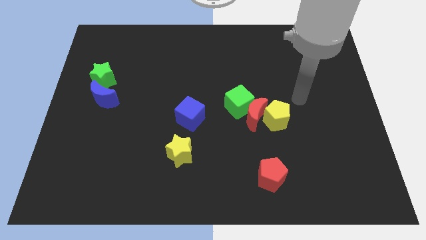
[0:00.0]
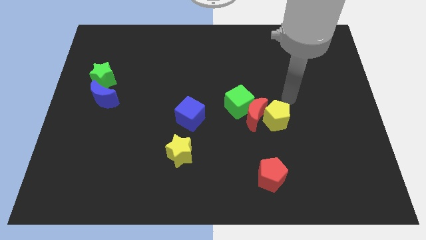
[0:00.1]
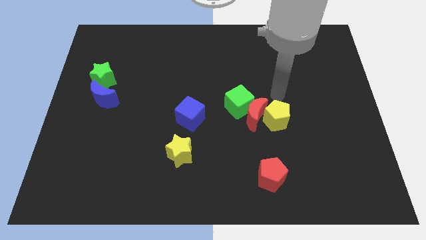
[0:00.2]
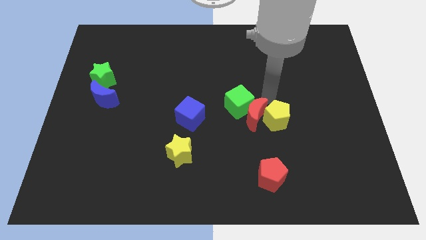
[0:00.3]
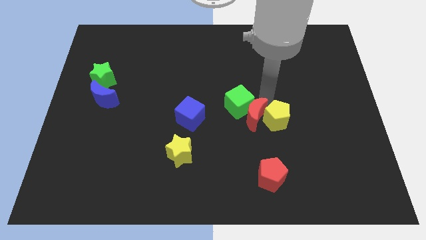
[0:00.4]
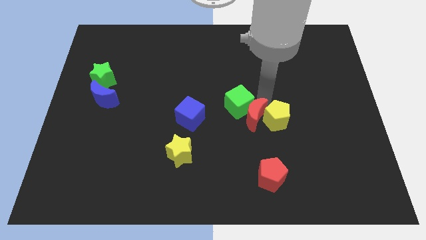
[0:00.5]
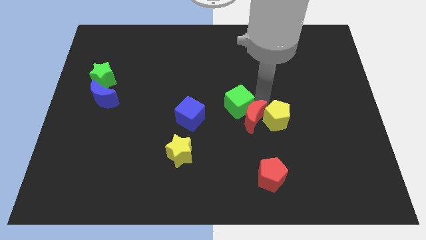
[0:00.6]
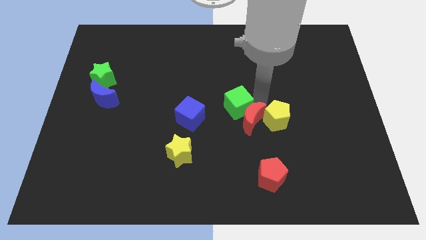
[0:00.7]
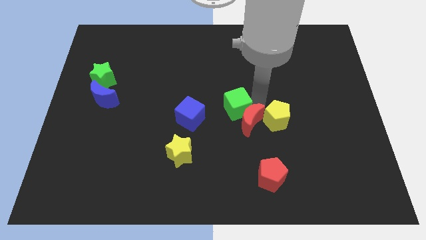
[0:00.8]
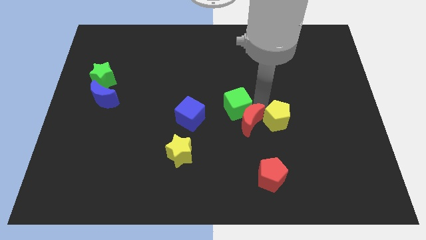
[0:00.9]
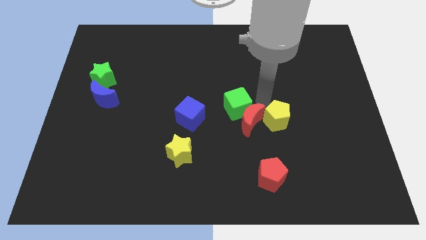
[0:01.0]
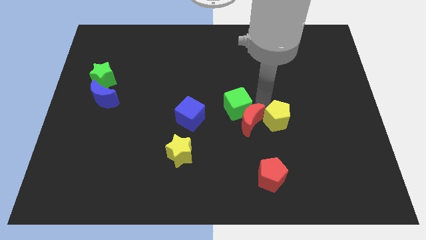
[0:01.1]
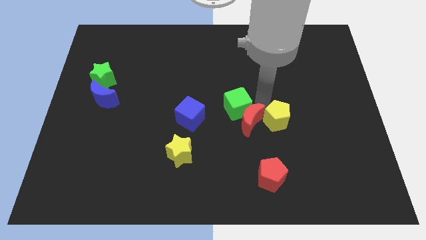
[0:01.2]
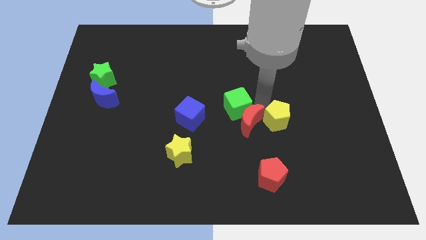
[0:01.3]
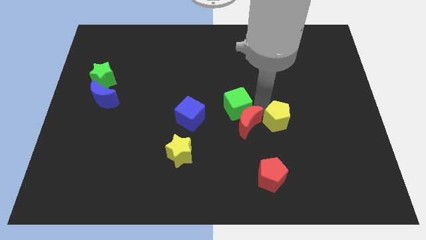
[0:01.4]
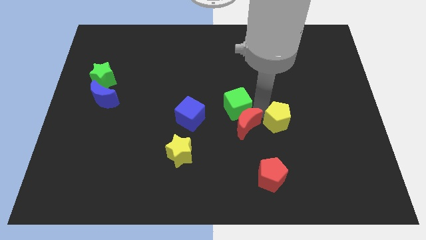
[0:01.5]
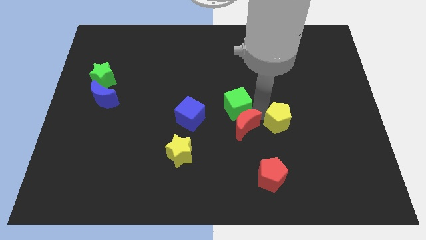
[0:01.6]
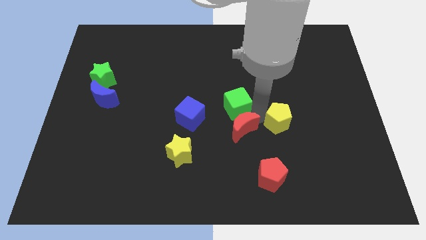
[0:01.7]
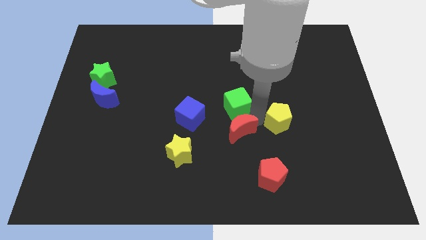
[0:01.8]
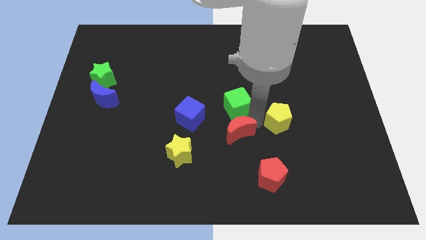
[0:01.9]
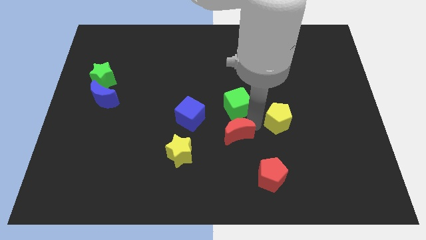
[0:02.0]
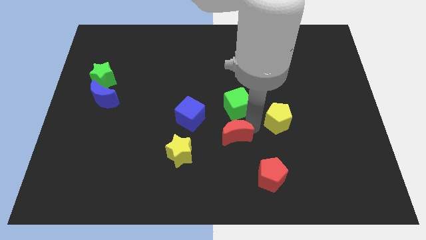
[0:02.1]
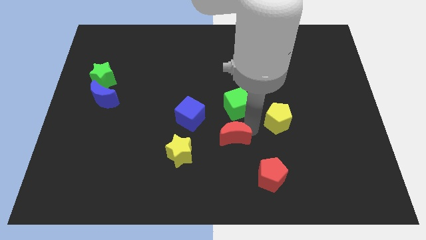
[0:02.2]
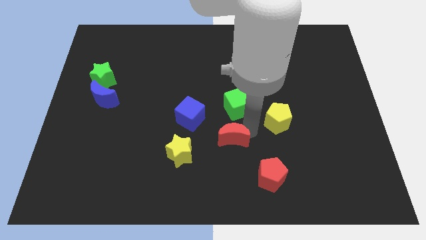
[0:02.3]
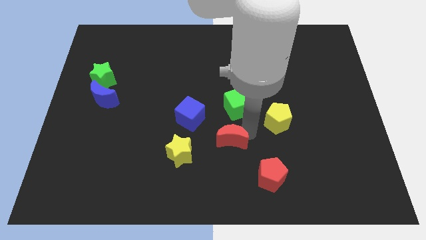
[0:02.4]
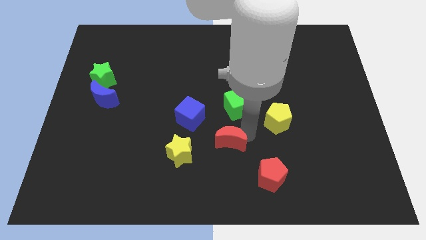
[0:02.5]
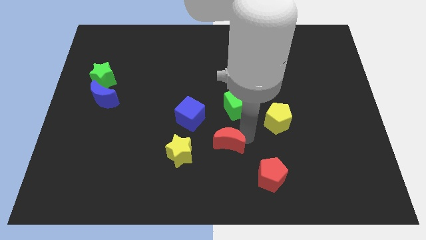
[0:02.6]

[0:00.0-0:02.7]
pull the red moon apart from the green cube and yellow pentagon

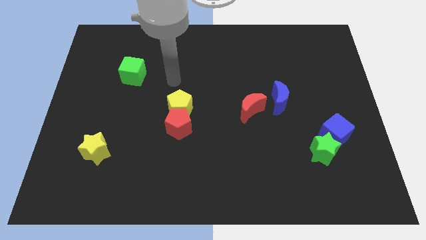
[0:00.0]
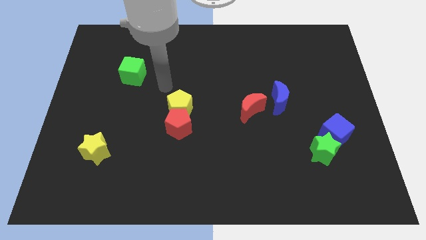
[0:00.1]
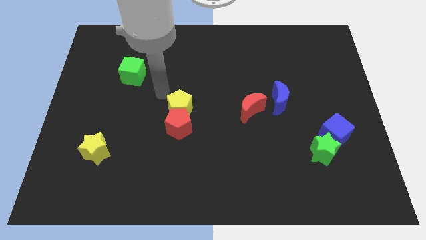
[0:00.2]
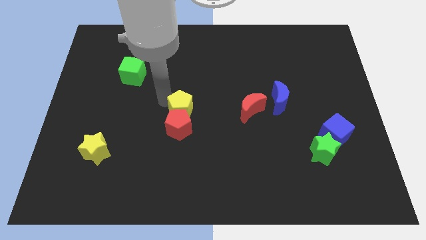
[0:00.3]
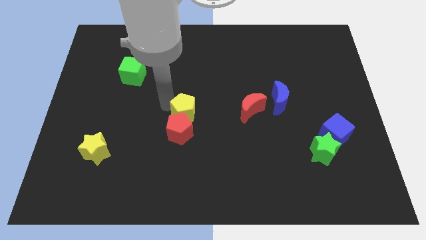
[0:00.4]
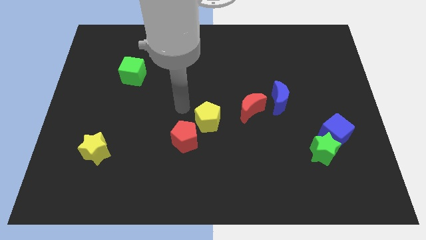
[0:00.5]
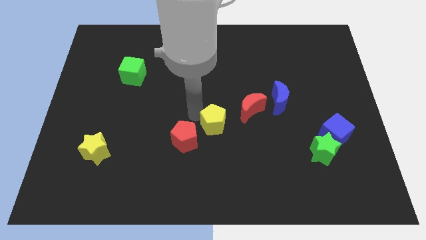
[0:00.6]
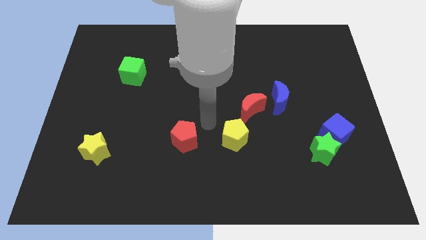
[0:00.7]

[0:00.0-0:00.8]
move the red pentagon away from the yellow pentagon

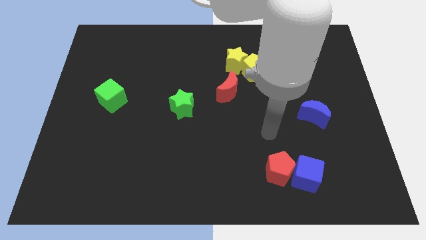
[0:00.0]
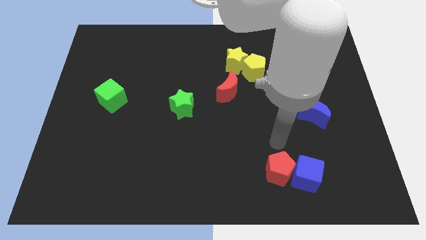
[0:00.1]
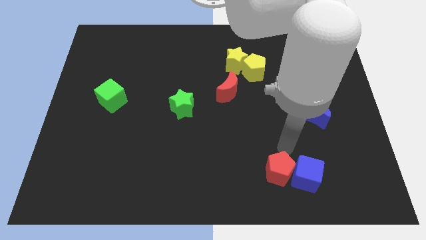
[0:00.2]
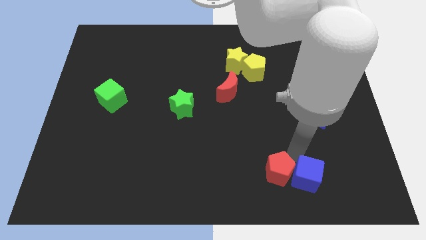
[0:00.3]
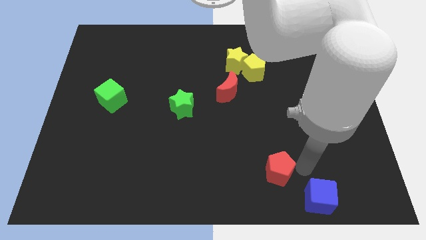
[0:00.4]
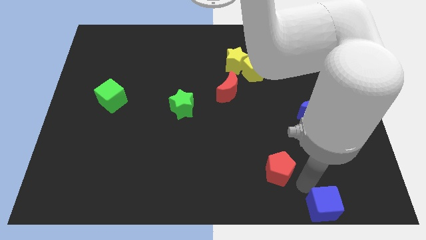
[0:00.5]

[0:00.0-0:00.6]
separate the red pentagon from the blue cube

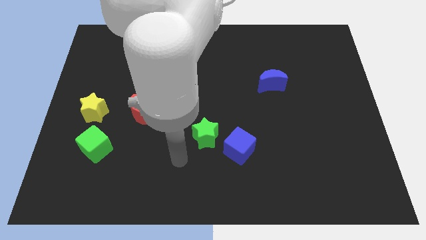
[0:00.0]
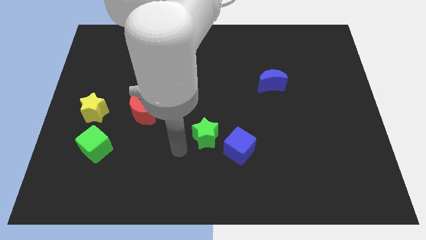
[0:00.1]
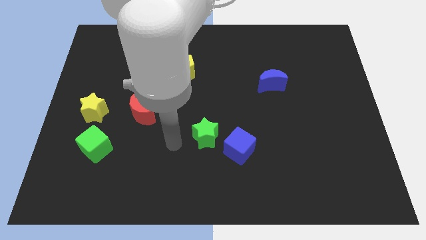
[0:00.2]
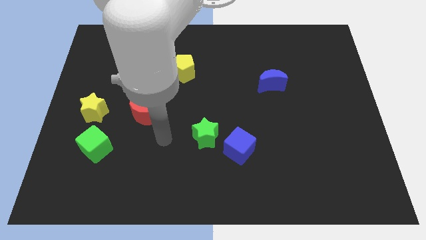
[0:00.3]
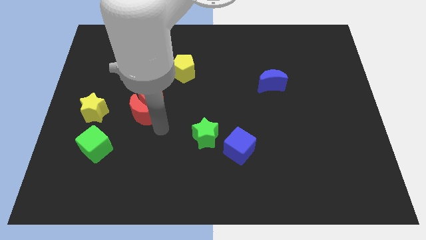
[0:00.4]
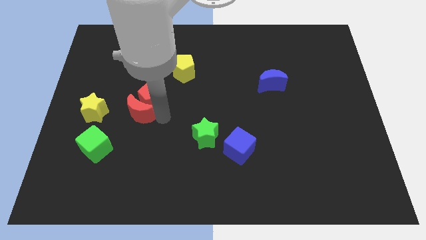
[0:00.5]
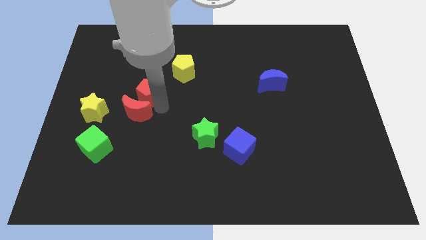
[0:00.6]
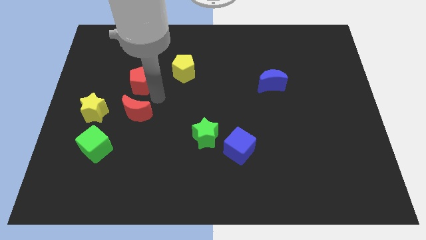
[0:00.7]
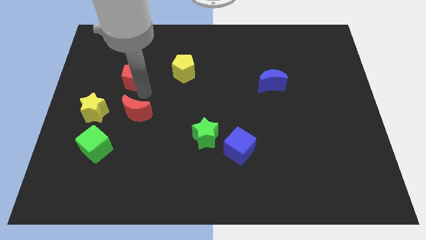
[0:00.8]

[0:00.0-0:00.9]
pull the red moon apart from the red pentagon

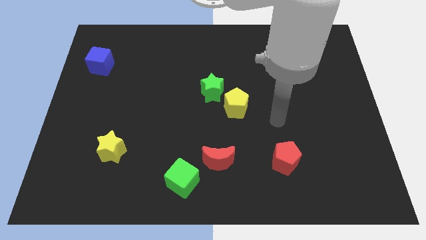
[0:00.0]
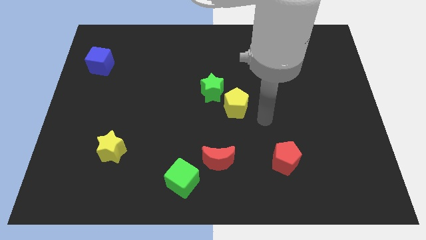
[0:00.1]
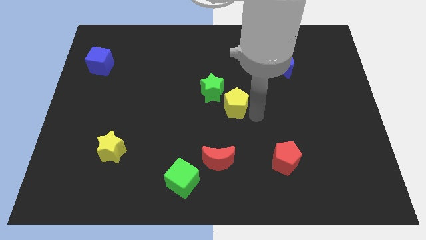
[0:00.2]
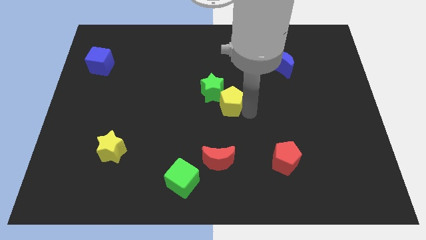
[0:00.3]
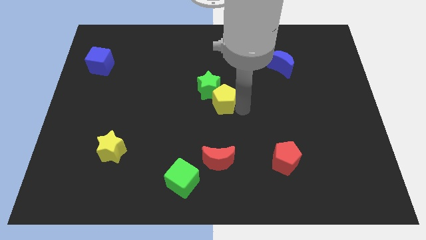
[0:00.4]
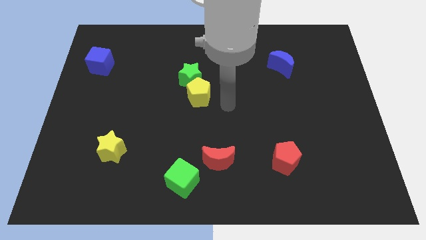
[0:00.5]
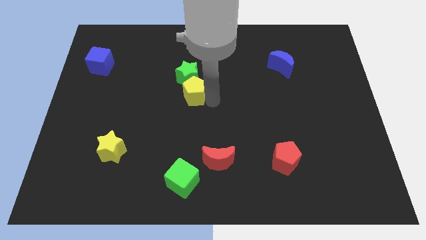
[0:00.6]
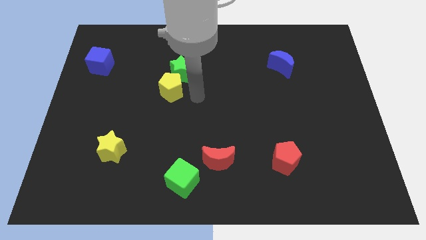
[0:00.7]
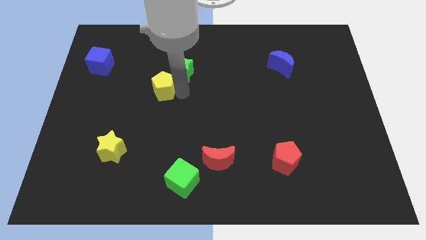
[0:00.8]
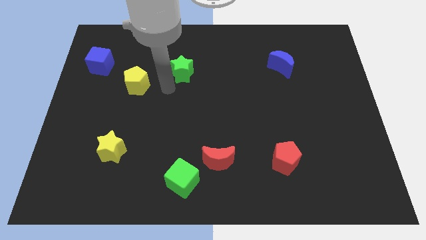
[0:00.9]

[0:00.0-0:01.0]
separate the green star from the yellow pentagon

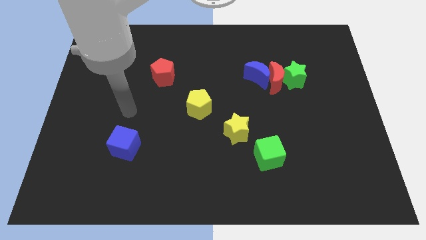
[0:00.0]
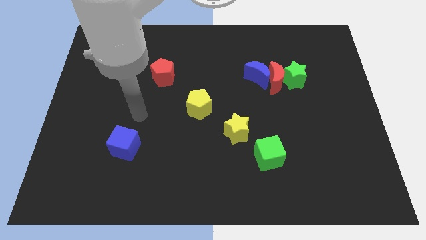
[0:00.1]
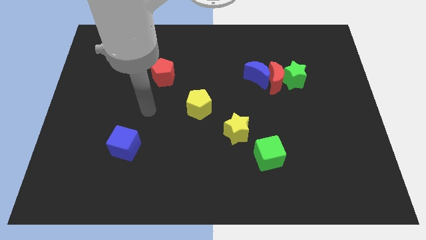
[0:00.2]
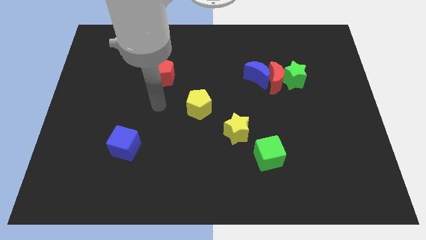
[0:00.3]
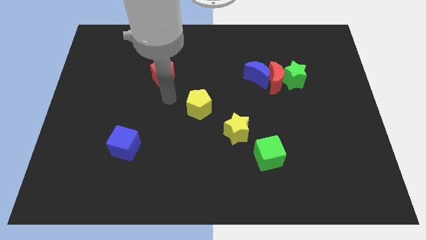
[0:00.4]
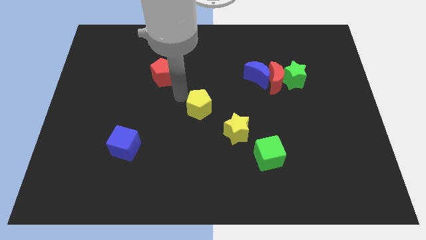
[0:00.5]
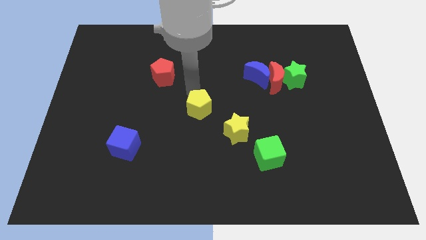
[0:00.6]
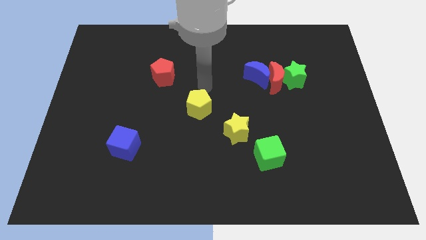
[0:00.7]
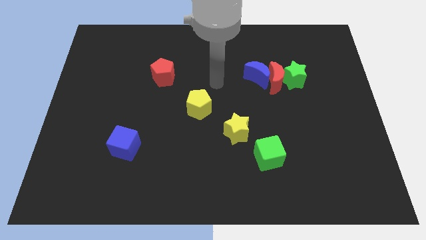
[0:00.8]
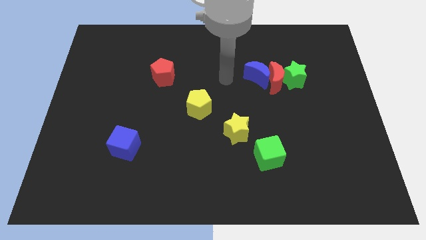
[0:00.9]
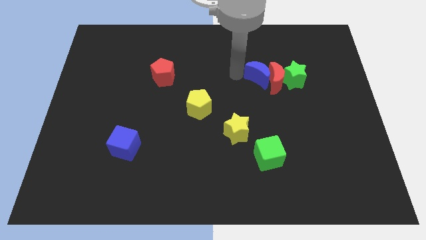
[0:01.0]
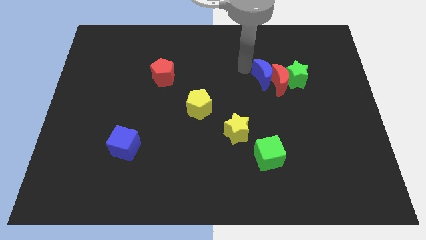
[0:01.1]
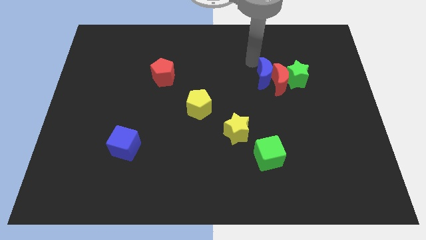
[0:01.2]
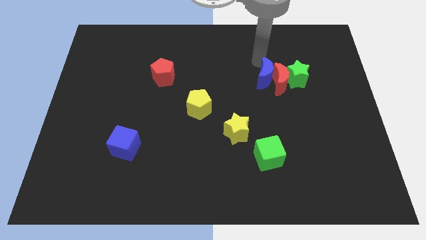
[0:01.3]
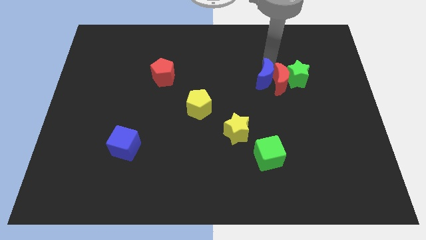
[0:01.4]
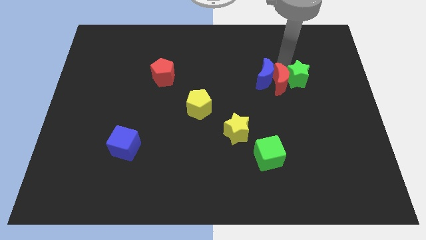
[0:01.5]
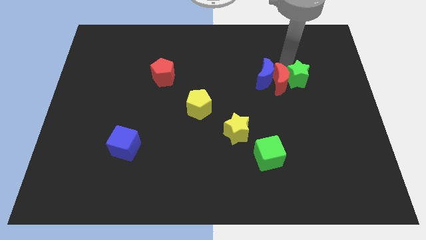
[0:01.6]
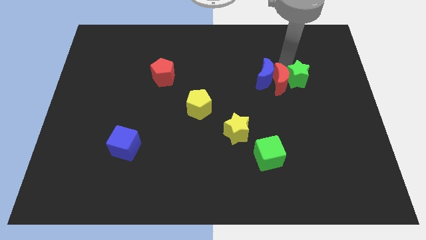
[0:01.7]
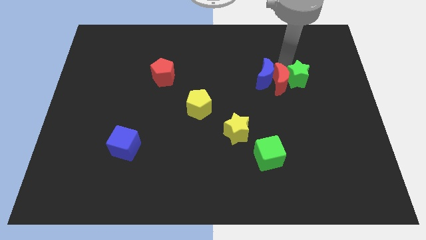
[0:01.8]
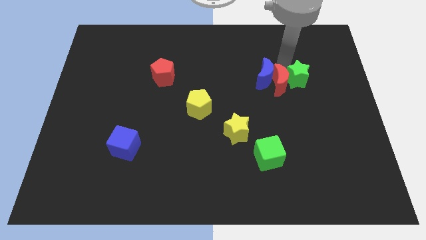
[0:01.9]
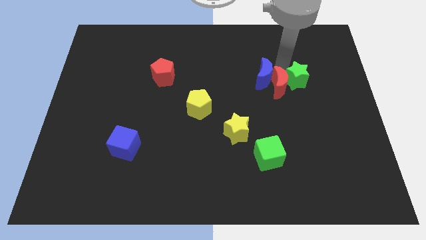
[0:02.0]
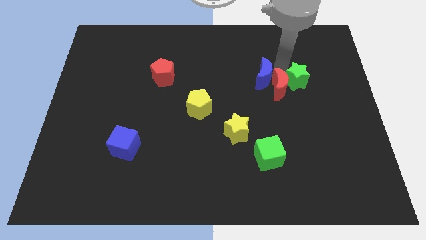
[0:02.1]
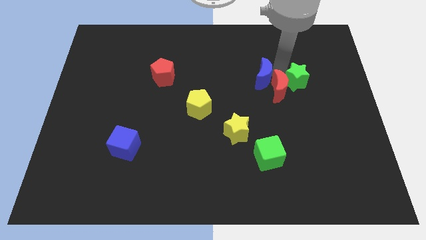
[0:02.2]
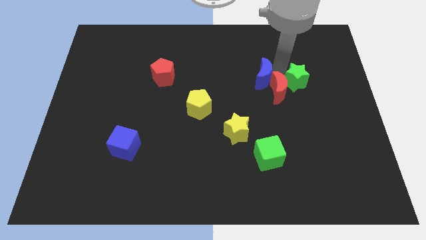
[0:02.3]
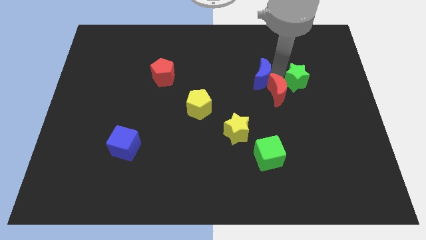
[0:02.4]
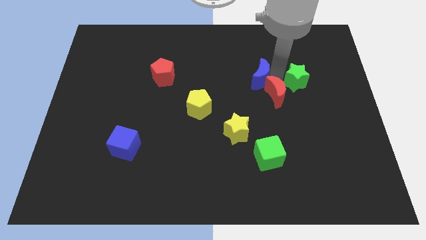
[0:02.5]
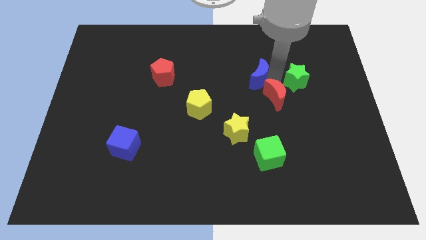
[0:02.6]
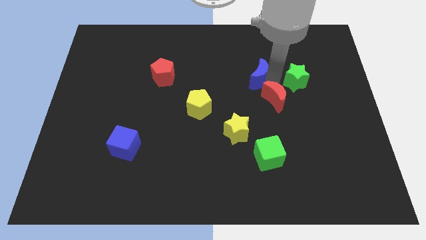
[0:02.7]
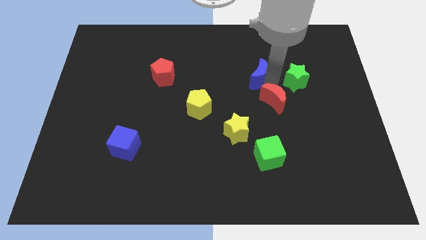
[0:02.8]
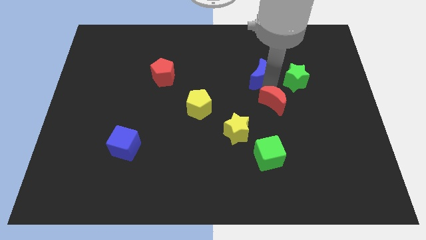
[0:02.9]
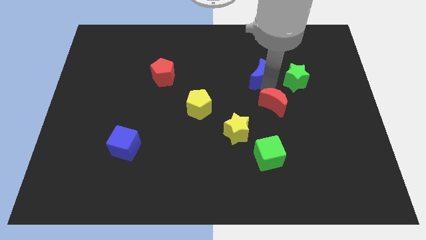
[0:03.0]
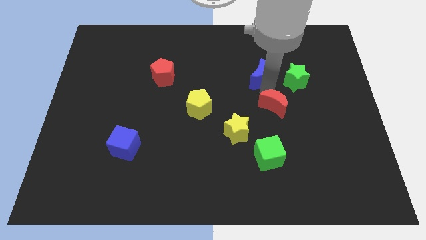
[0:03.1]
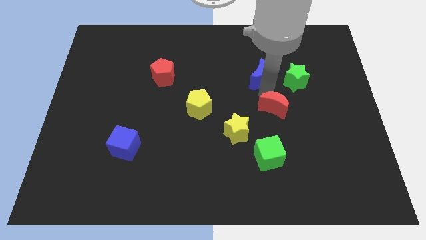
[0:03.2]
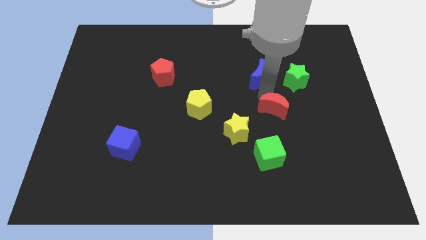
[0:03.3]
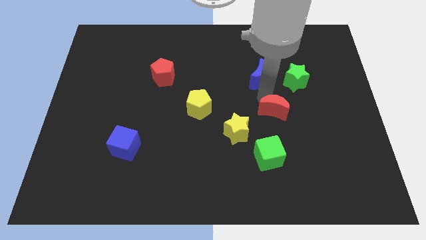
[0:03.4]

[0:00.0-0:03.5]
separate the red moon from the blue moon and green star
